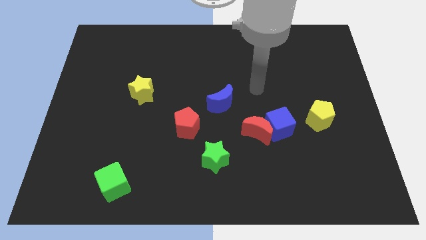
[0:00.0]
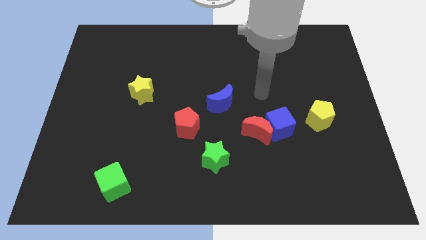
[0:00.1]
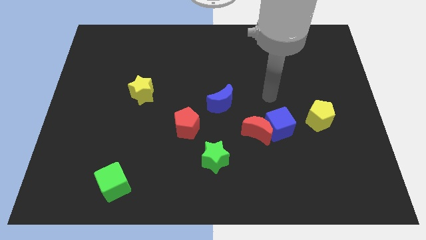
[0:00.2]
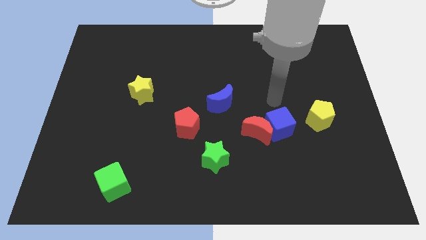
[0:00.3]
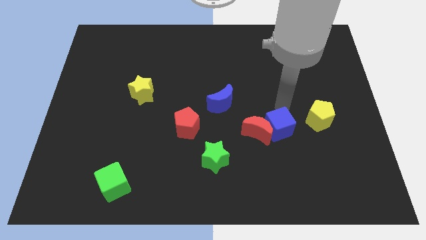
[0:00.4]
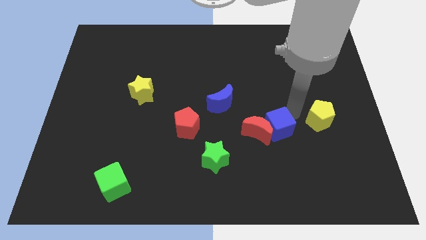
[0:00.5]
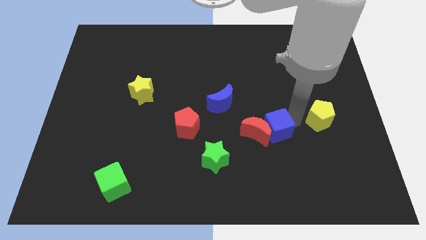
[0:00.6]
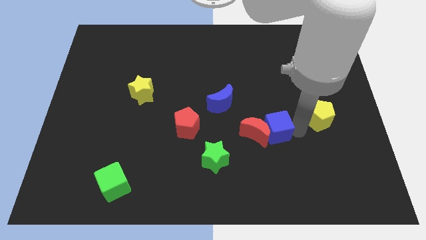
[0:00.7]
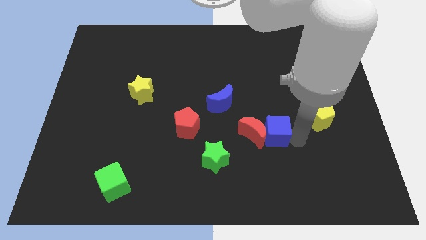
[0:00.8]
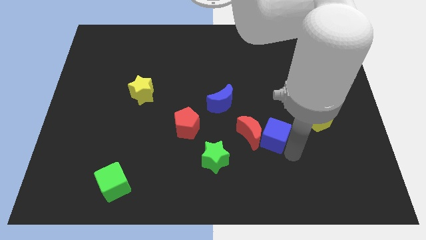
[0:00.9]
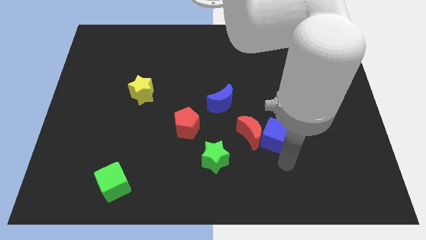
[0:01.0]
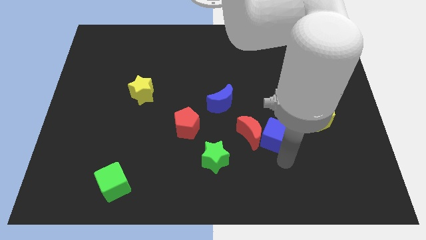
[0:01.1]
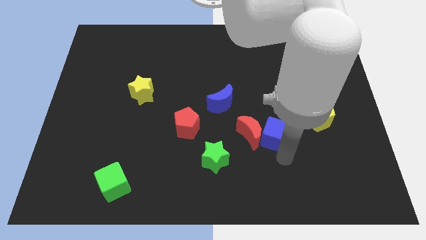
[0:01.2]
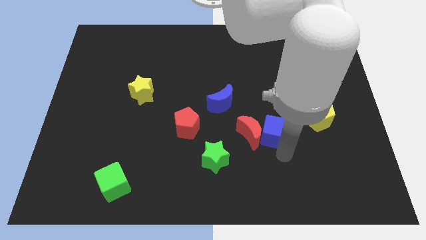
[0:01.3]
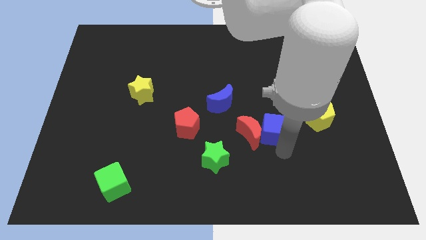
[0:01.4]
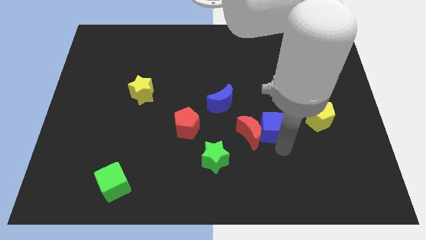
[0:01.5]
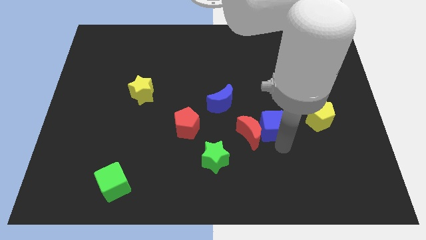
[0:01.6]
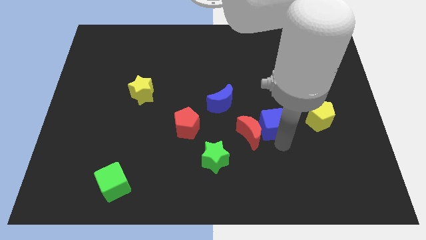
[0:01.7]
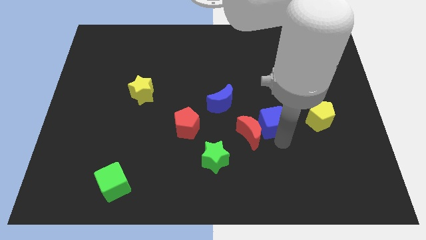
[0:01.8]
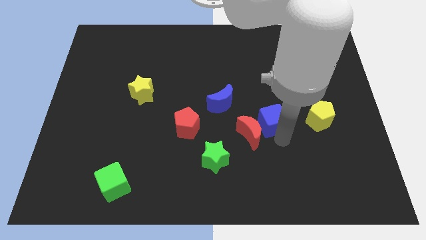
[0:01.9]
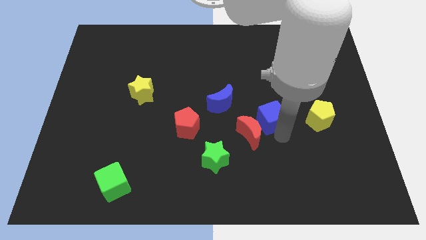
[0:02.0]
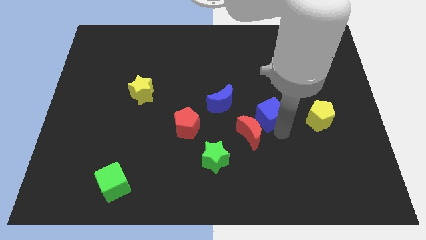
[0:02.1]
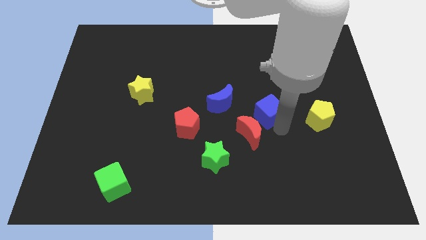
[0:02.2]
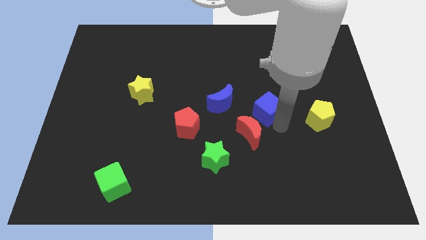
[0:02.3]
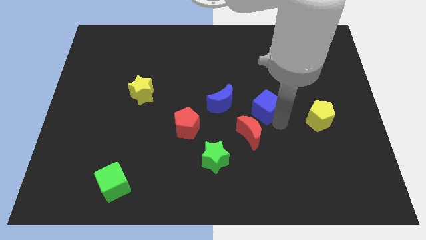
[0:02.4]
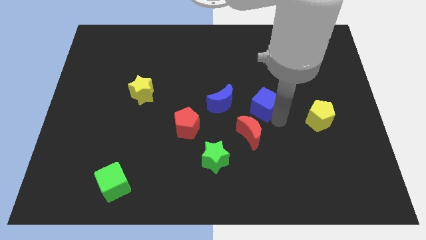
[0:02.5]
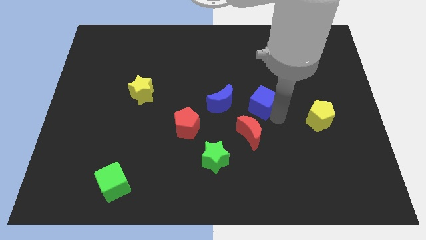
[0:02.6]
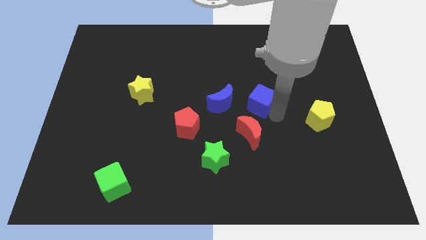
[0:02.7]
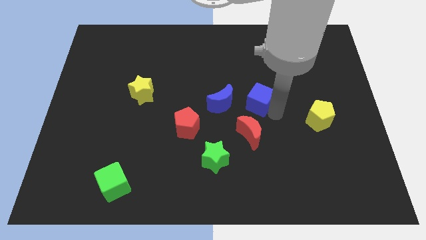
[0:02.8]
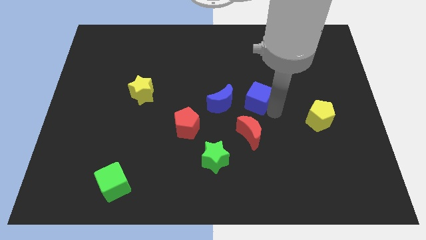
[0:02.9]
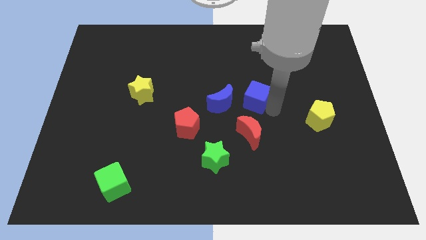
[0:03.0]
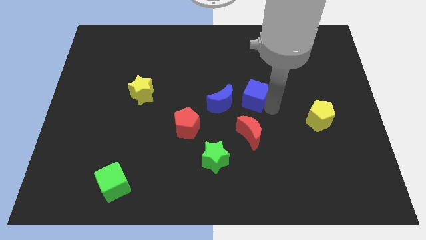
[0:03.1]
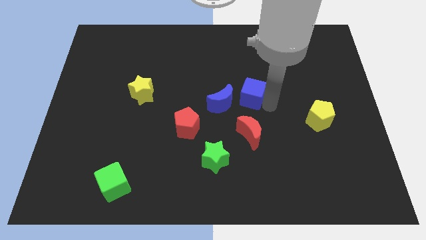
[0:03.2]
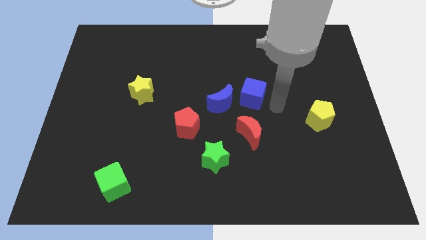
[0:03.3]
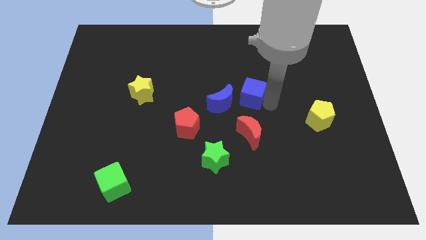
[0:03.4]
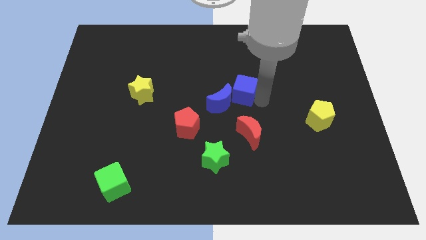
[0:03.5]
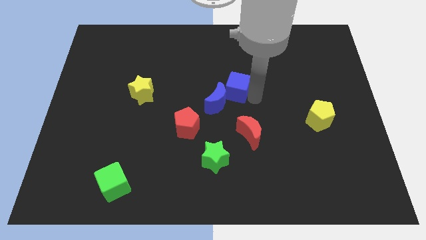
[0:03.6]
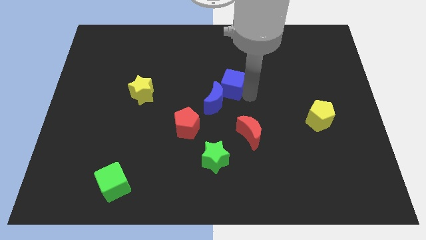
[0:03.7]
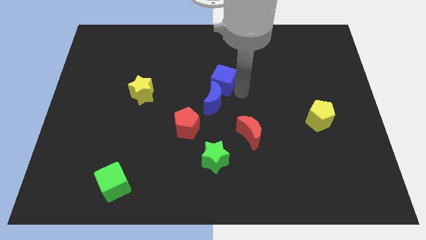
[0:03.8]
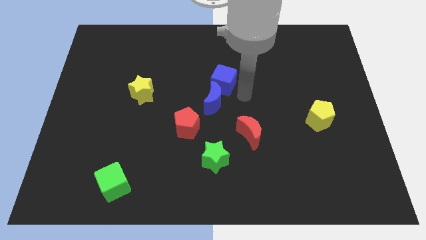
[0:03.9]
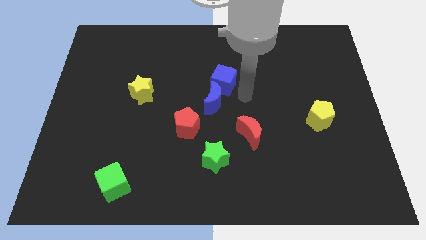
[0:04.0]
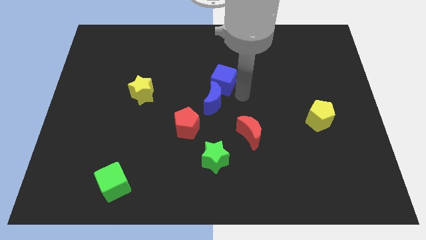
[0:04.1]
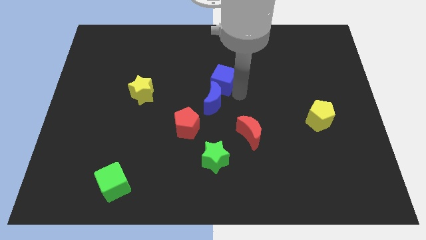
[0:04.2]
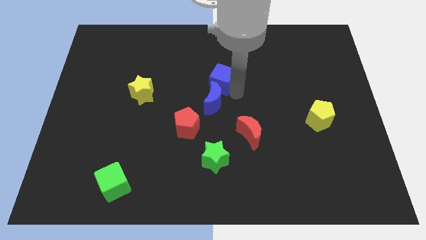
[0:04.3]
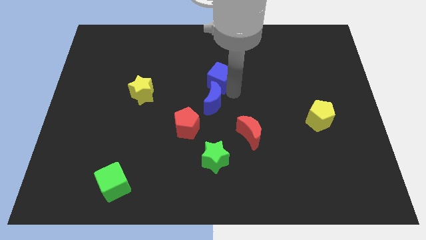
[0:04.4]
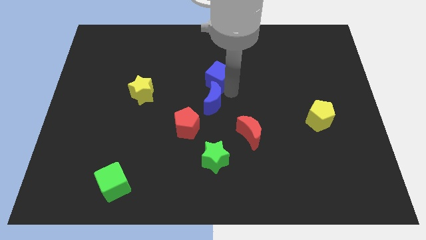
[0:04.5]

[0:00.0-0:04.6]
slide the blue cube up and then left

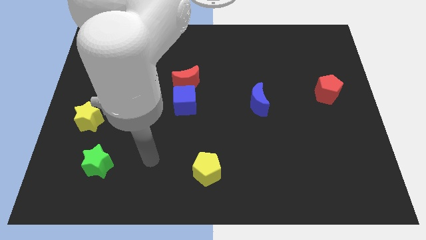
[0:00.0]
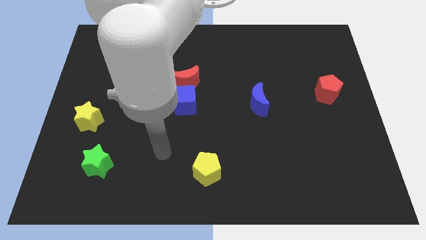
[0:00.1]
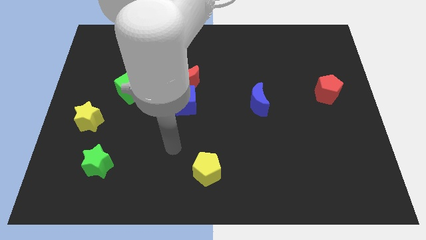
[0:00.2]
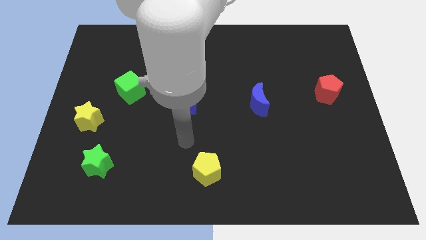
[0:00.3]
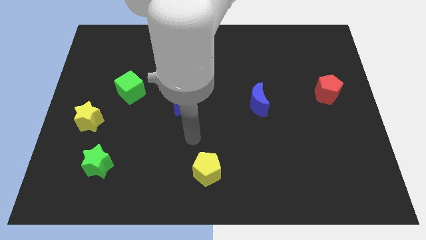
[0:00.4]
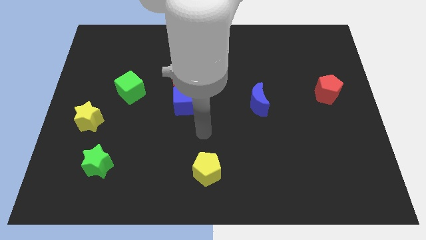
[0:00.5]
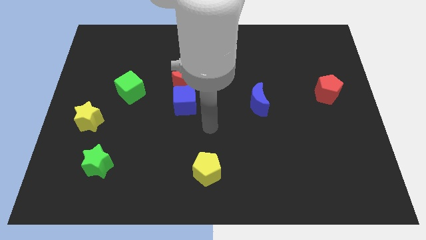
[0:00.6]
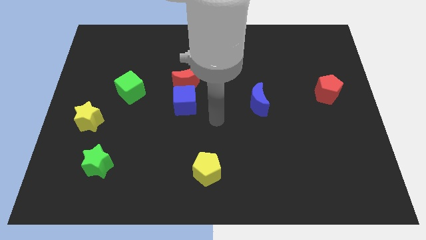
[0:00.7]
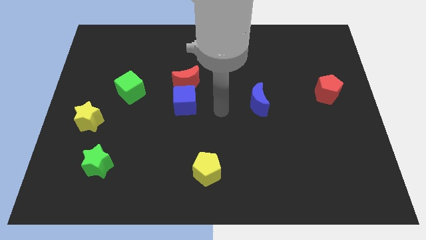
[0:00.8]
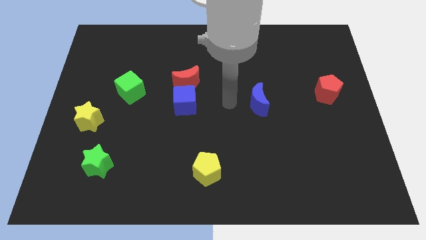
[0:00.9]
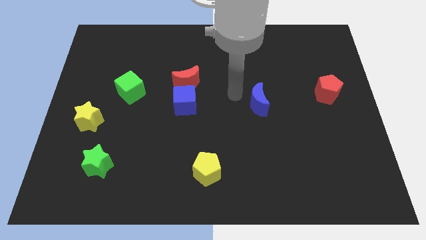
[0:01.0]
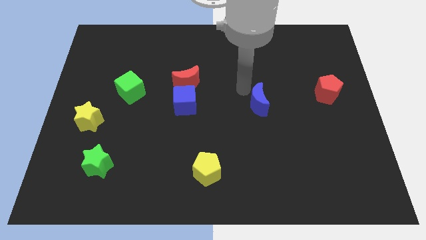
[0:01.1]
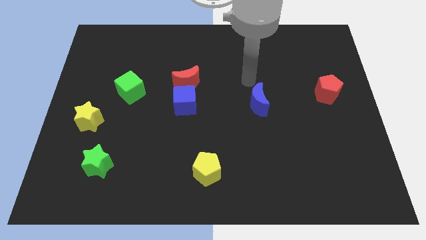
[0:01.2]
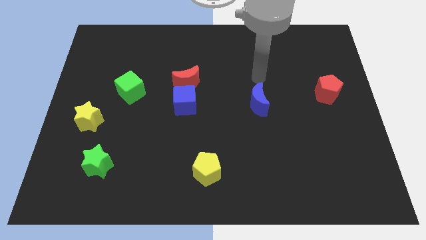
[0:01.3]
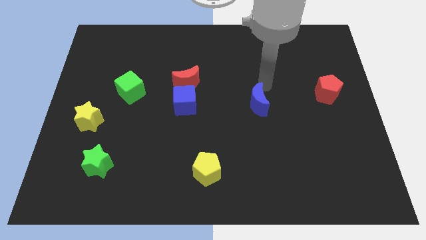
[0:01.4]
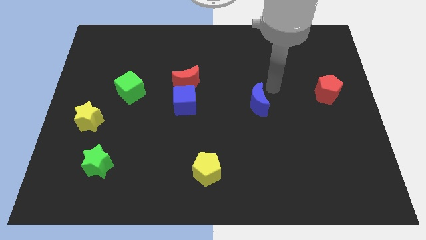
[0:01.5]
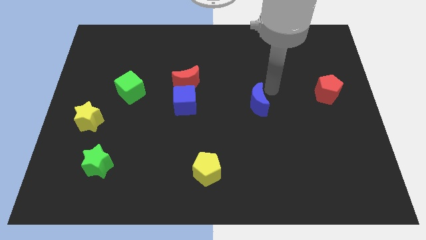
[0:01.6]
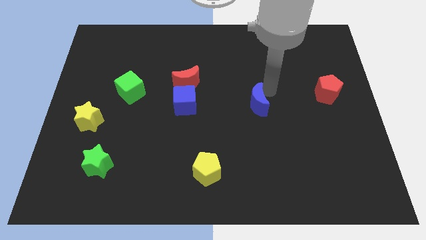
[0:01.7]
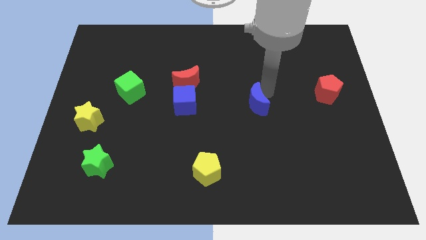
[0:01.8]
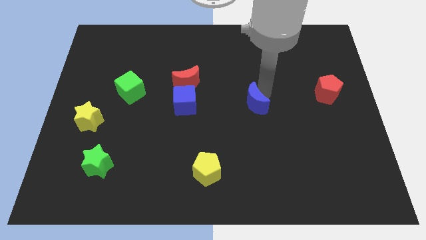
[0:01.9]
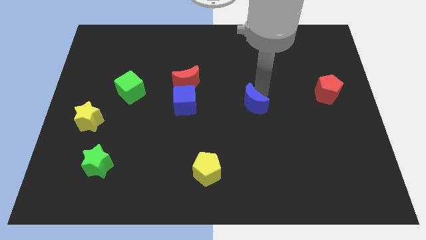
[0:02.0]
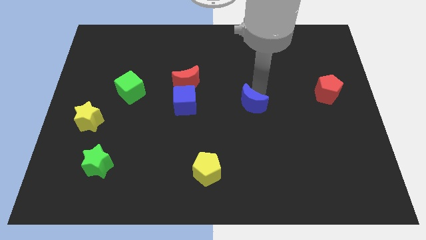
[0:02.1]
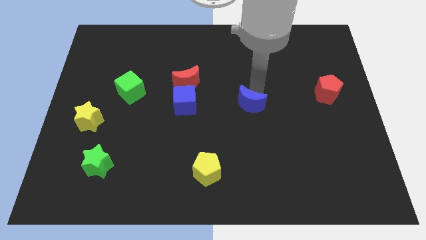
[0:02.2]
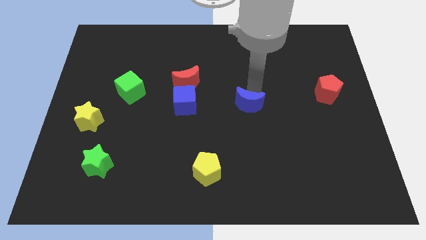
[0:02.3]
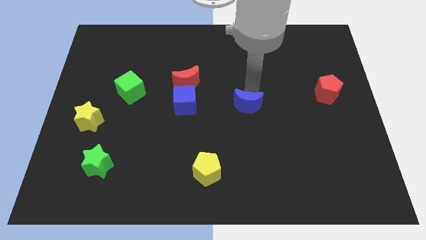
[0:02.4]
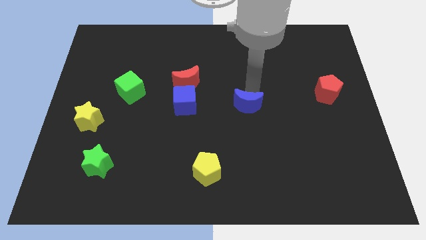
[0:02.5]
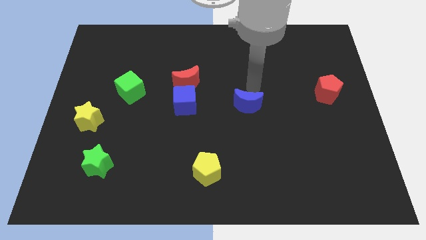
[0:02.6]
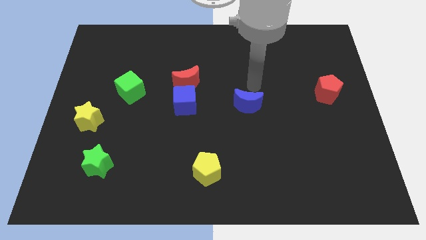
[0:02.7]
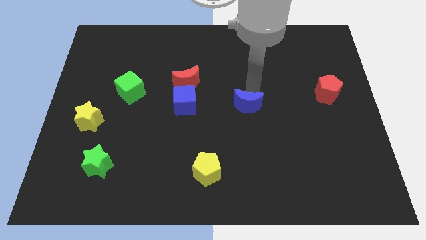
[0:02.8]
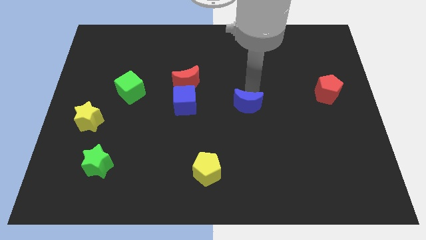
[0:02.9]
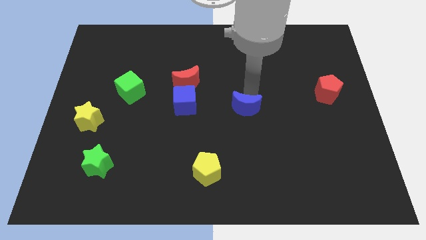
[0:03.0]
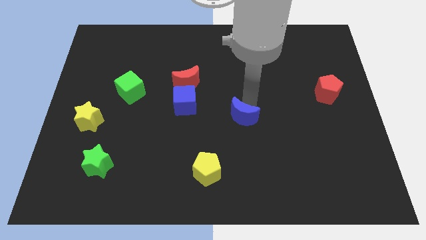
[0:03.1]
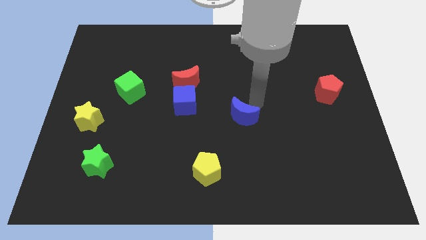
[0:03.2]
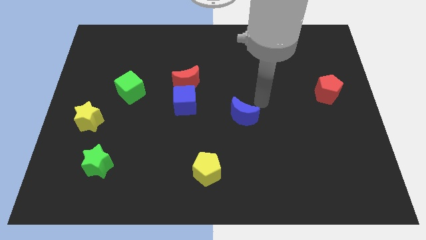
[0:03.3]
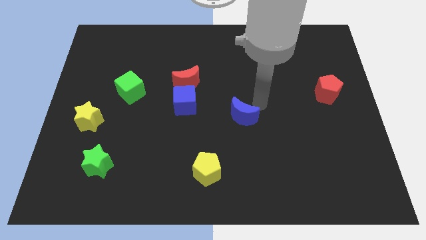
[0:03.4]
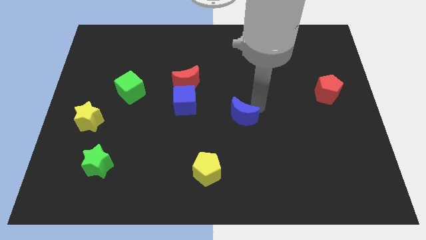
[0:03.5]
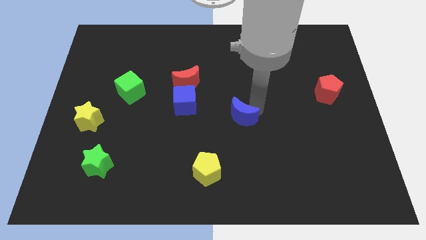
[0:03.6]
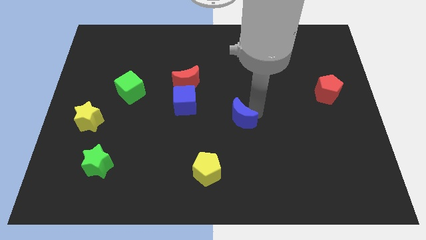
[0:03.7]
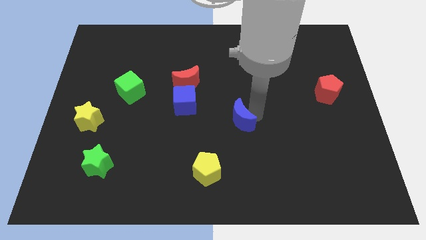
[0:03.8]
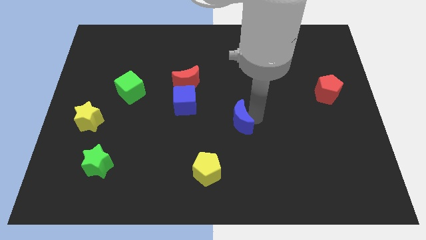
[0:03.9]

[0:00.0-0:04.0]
push the blue moon a little bit downwards and left
